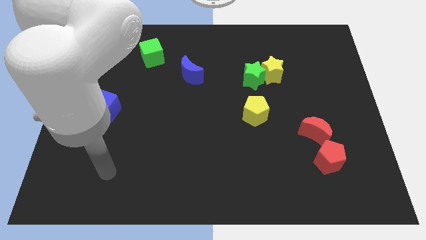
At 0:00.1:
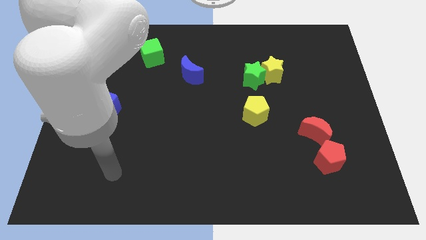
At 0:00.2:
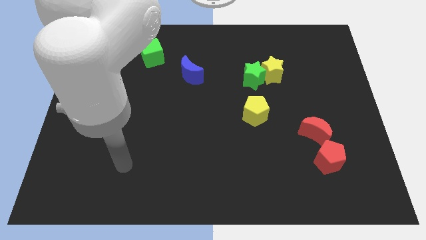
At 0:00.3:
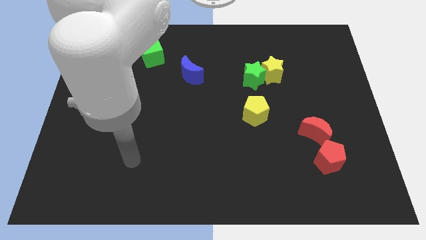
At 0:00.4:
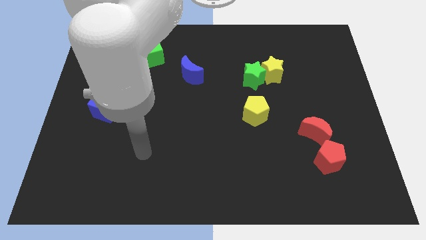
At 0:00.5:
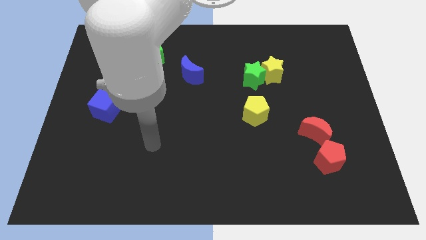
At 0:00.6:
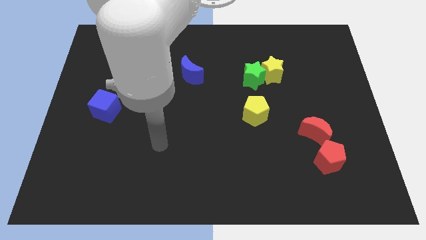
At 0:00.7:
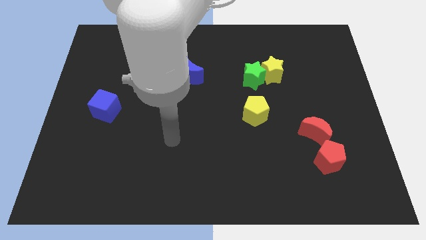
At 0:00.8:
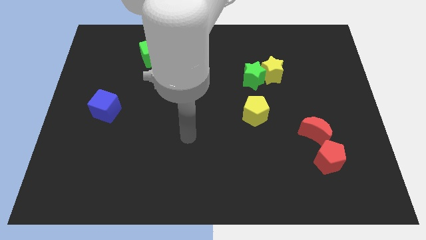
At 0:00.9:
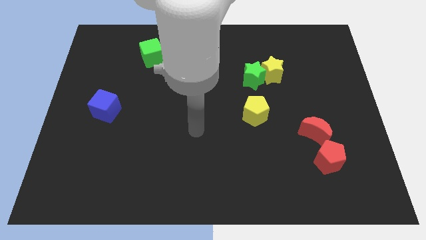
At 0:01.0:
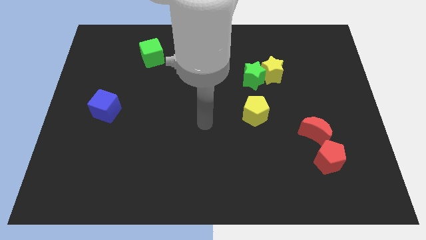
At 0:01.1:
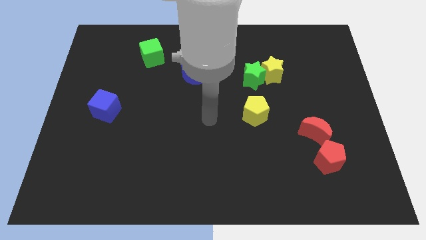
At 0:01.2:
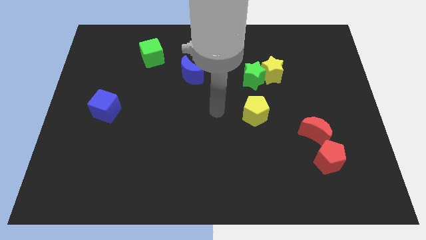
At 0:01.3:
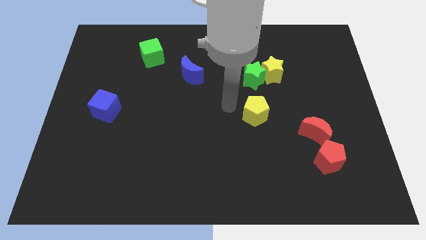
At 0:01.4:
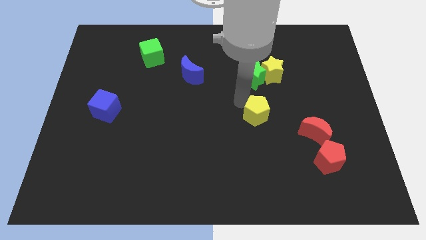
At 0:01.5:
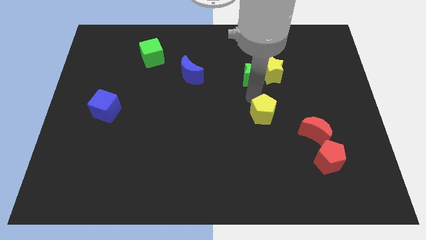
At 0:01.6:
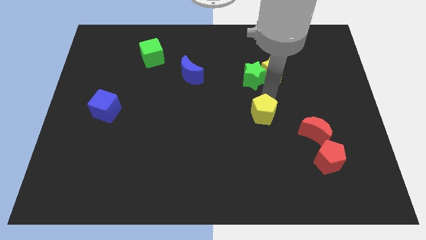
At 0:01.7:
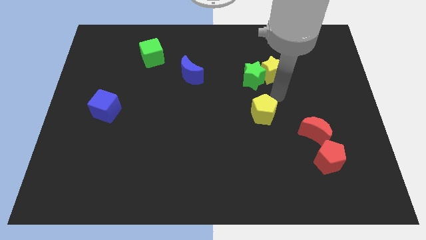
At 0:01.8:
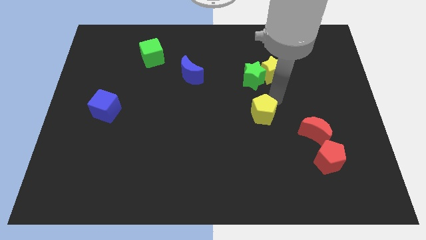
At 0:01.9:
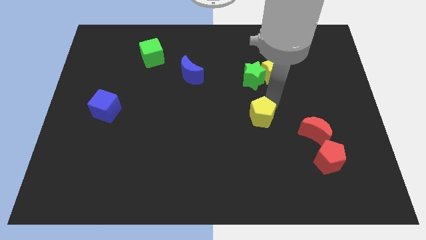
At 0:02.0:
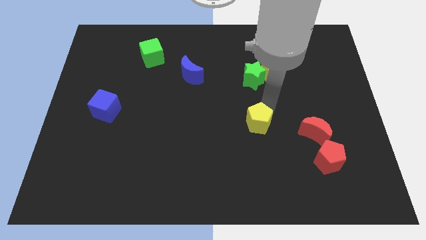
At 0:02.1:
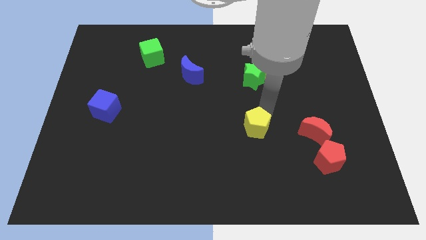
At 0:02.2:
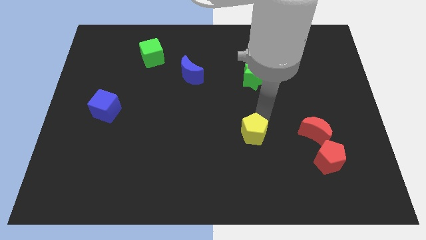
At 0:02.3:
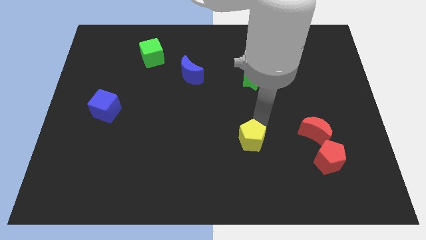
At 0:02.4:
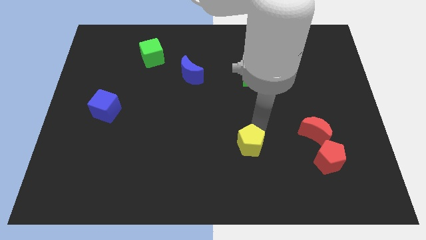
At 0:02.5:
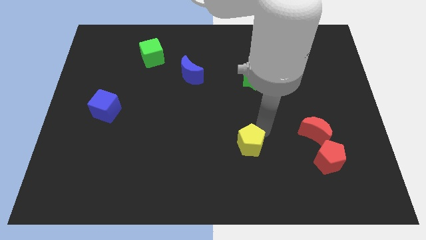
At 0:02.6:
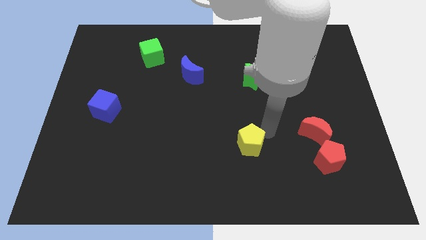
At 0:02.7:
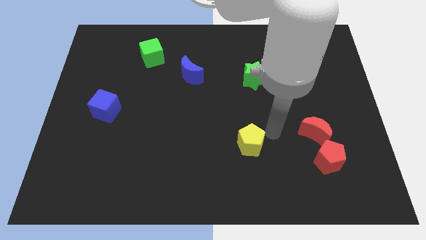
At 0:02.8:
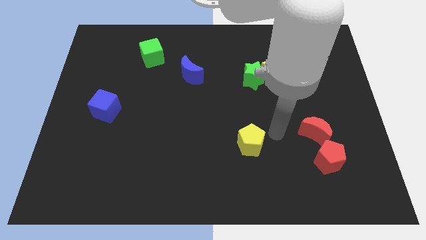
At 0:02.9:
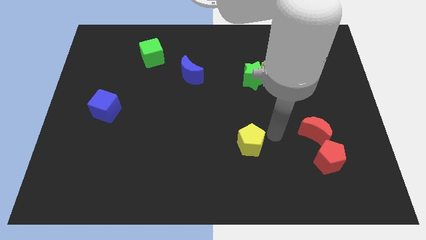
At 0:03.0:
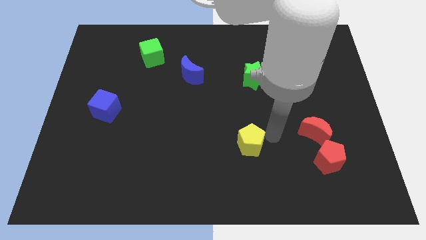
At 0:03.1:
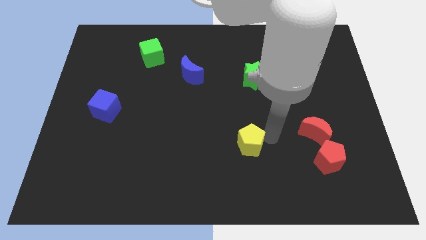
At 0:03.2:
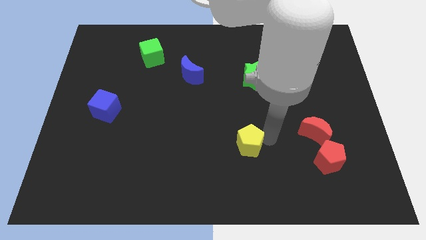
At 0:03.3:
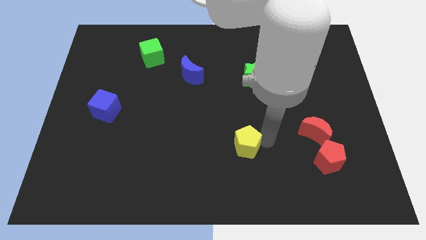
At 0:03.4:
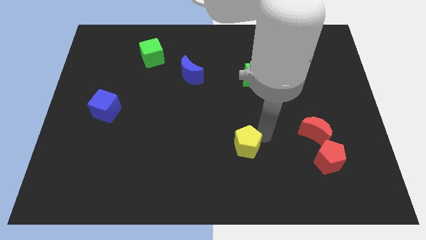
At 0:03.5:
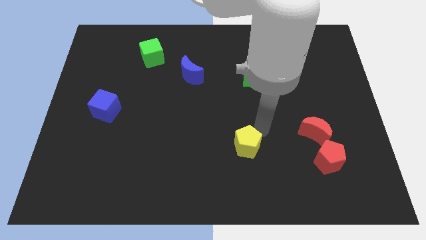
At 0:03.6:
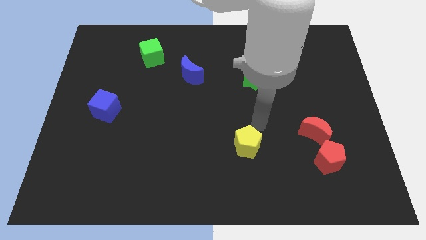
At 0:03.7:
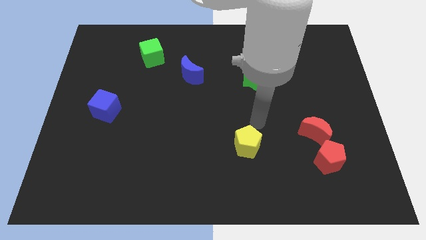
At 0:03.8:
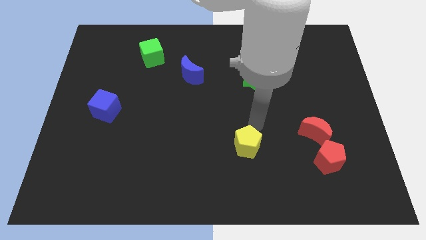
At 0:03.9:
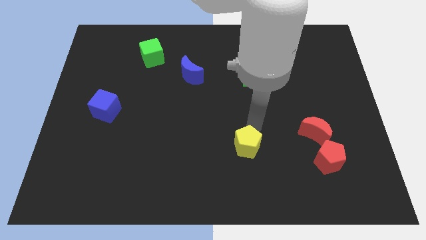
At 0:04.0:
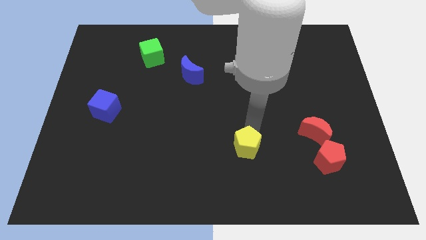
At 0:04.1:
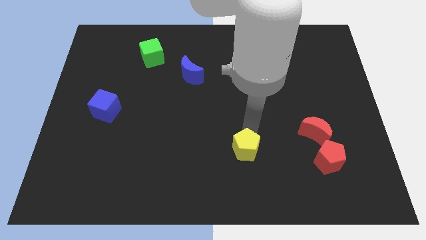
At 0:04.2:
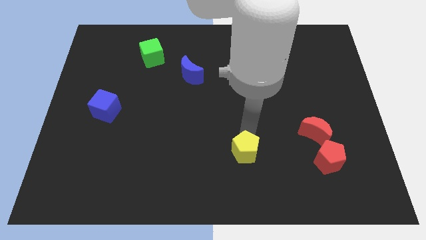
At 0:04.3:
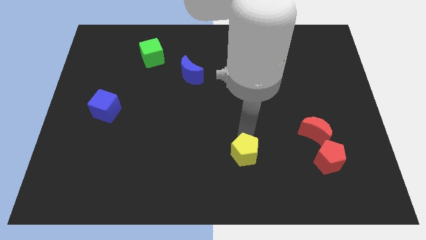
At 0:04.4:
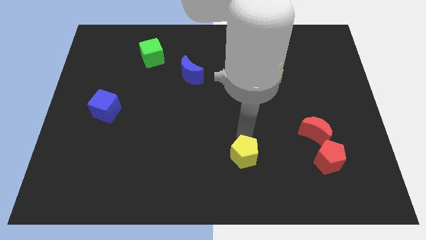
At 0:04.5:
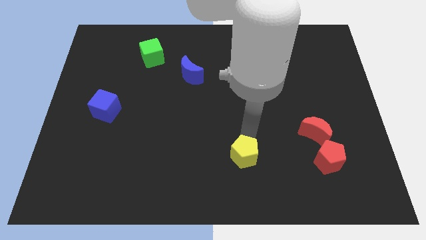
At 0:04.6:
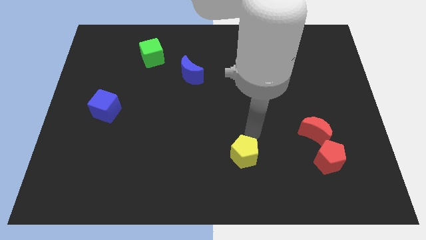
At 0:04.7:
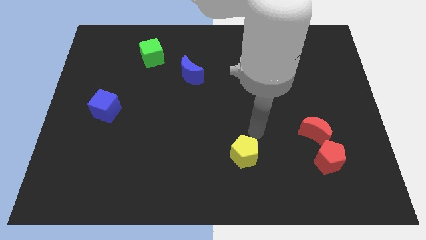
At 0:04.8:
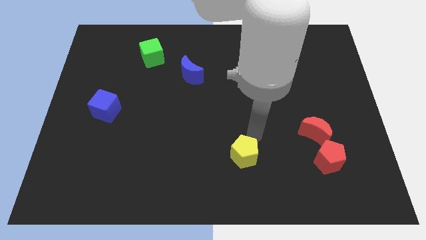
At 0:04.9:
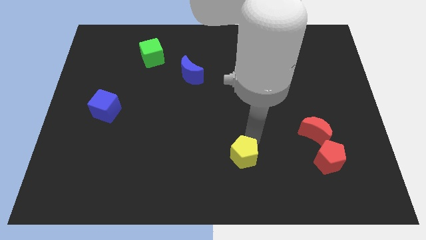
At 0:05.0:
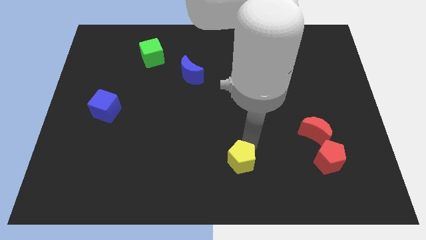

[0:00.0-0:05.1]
slide the yellow pentagon to the bottom side
